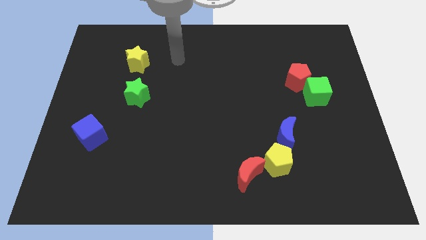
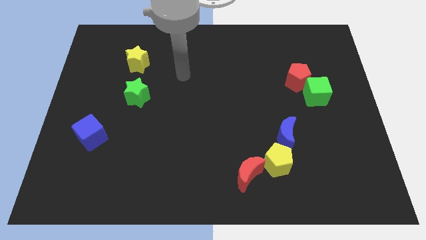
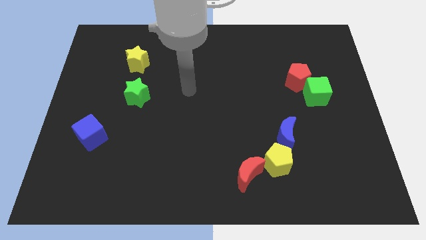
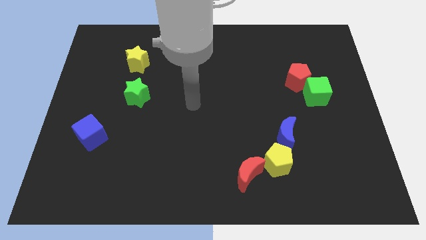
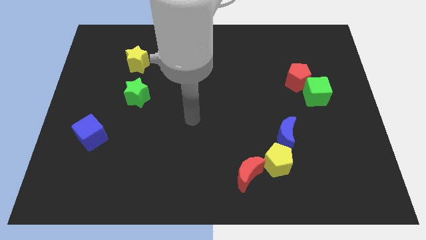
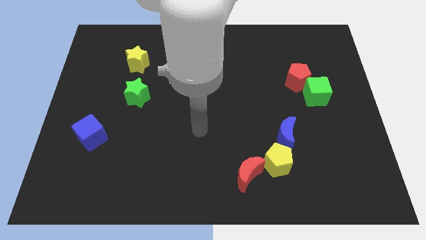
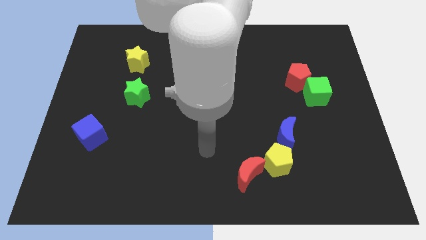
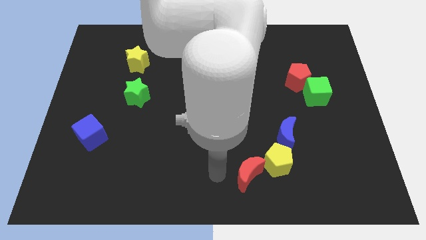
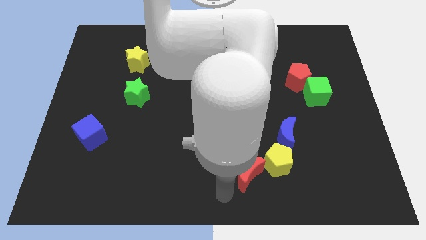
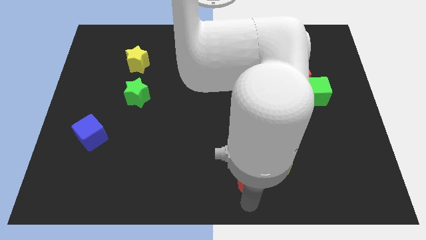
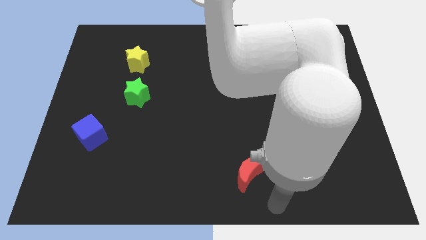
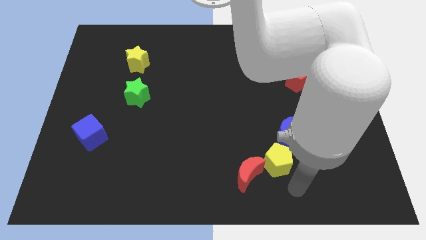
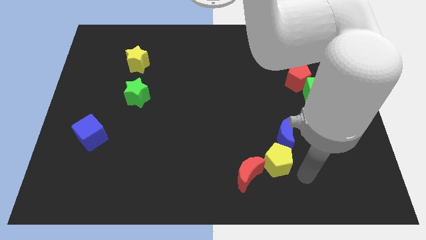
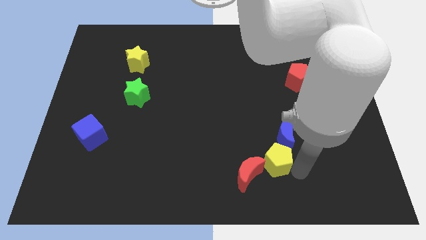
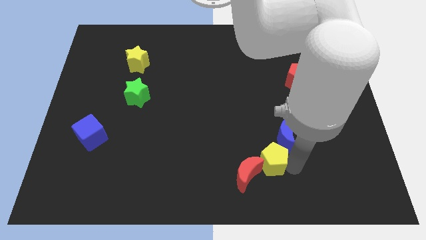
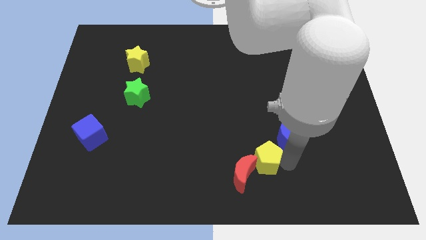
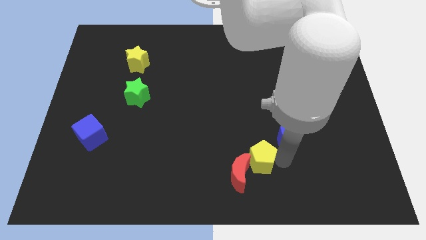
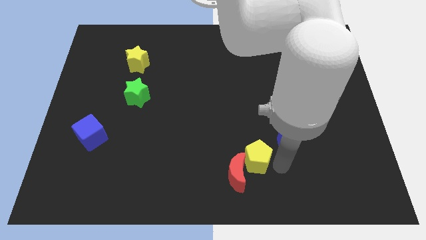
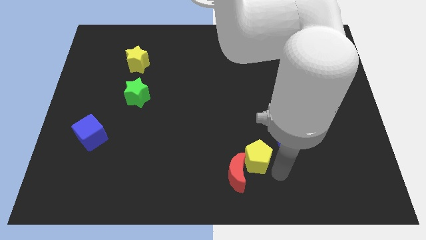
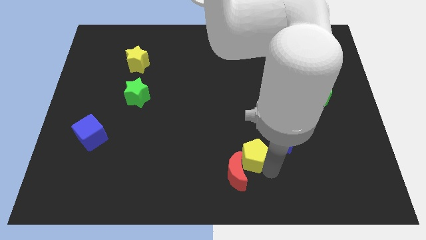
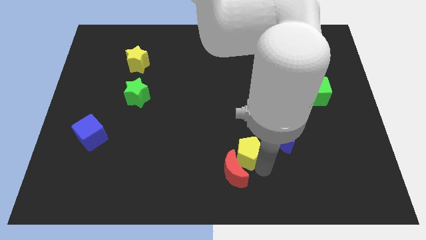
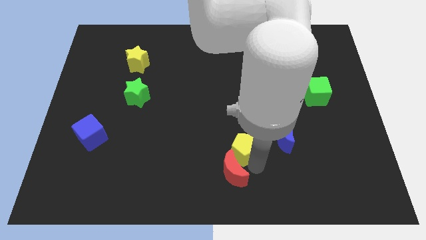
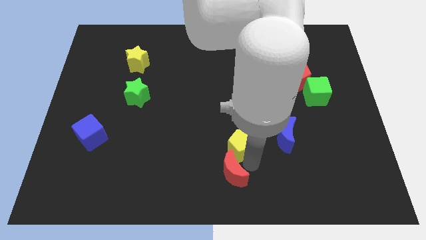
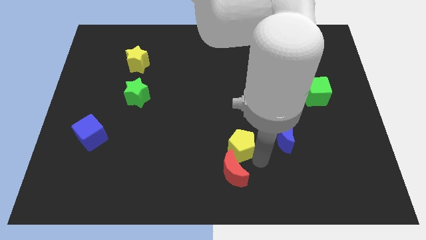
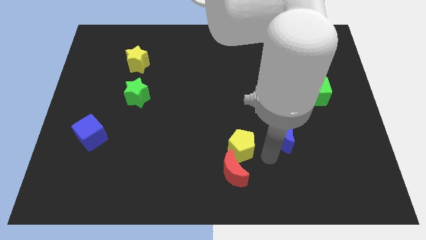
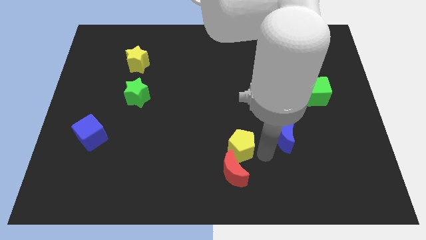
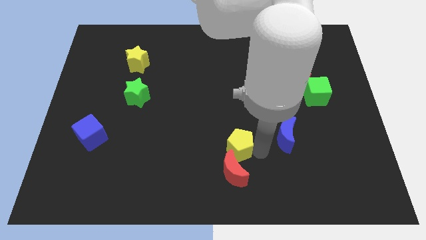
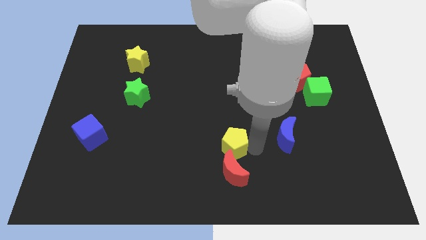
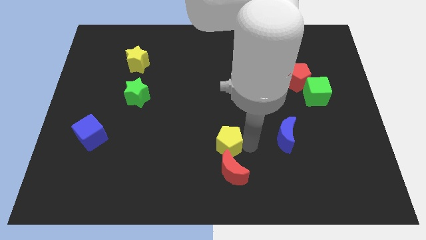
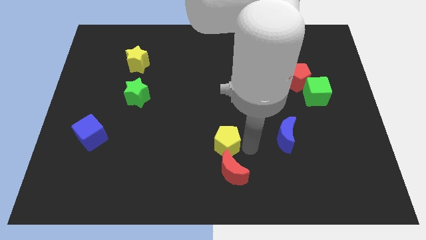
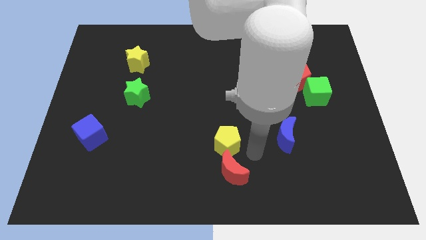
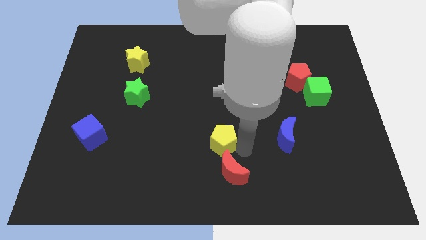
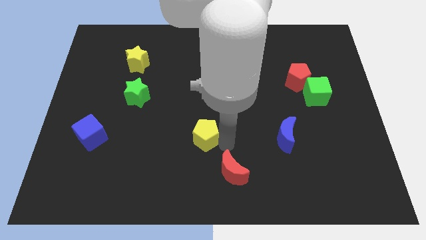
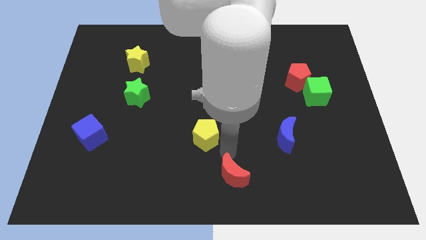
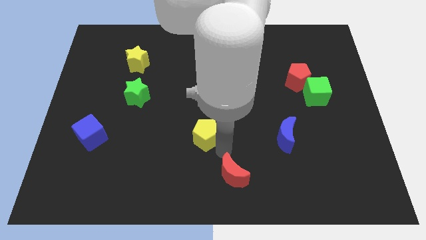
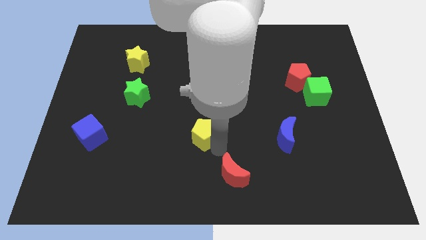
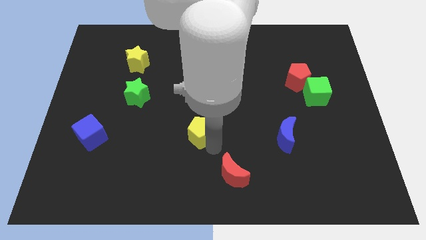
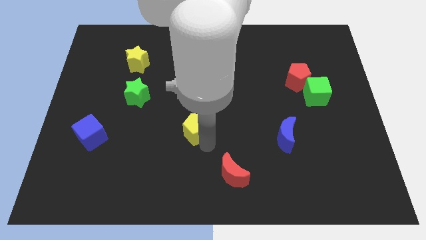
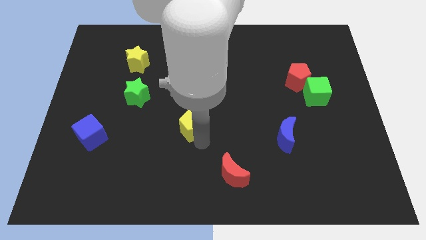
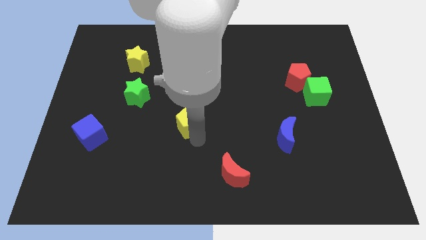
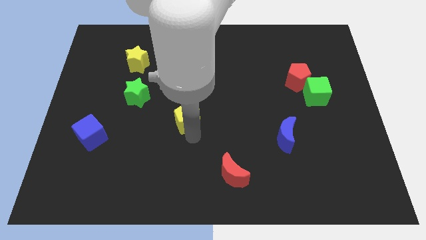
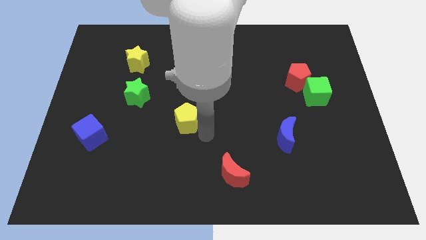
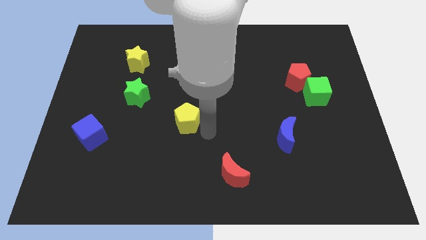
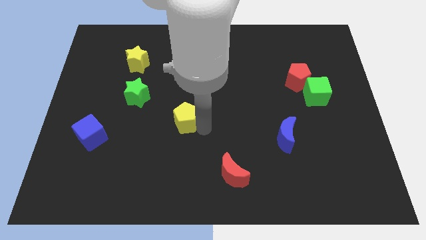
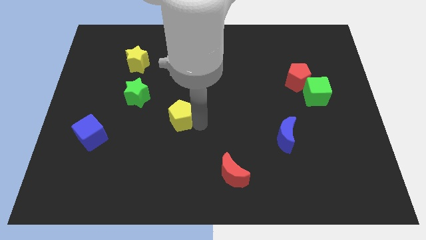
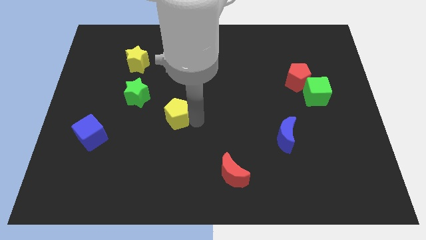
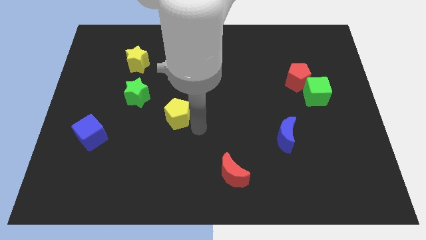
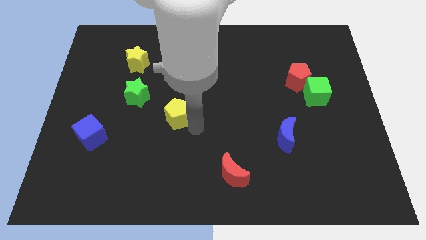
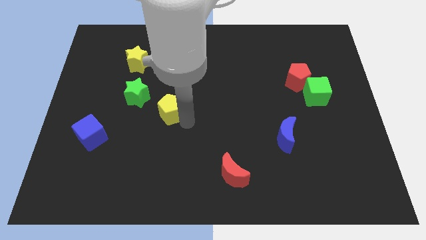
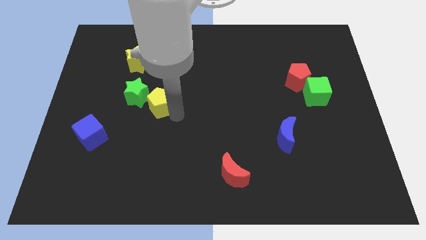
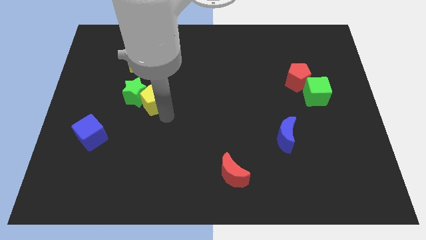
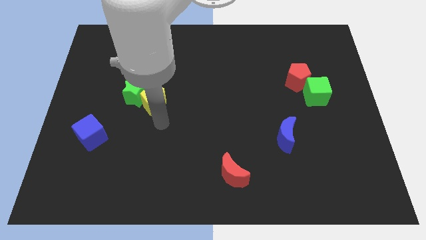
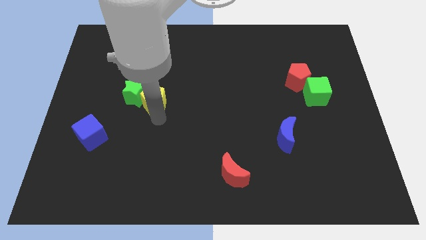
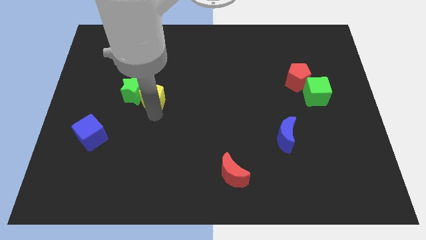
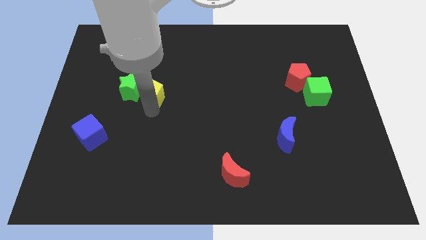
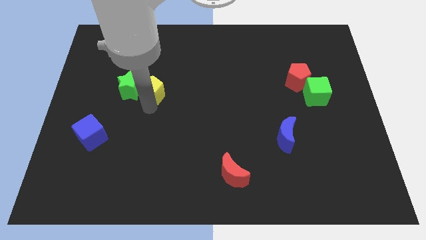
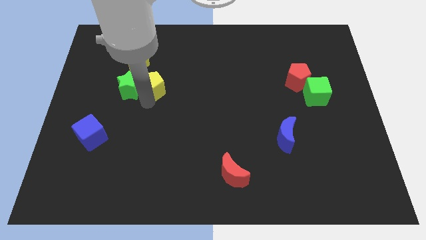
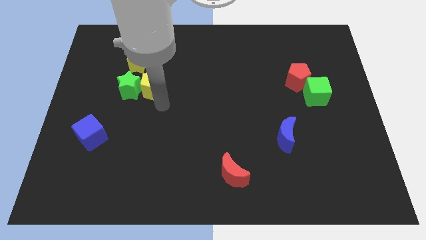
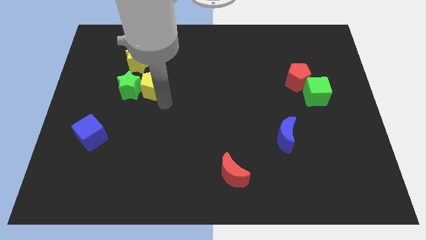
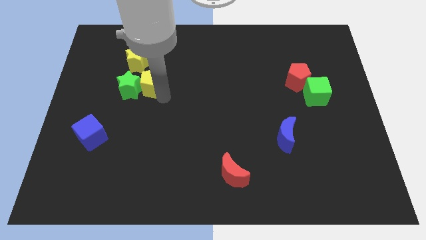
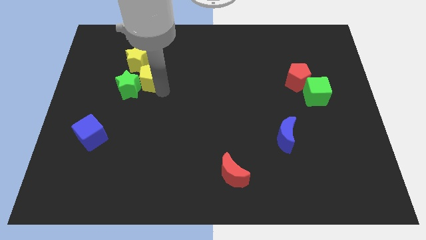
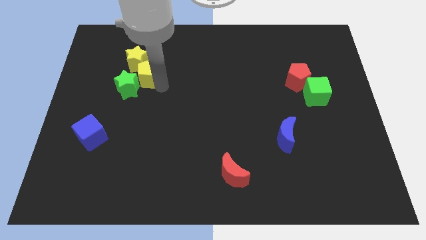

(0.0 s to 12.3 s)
slide the yellow pentagon next to the yellow star

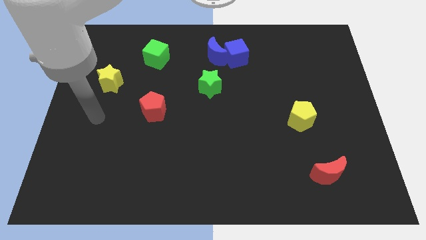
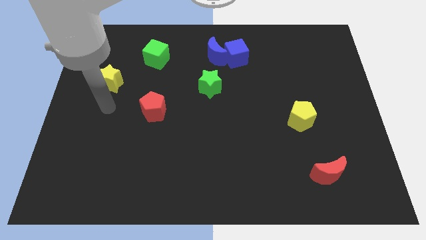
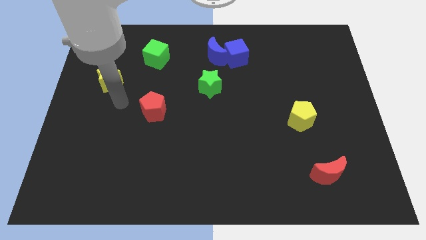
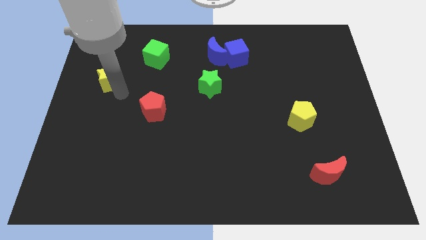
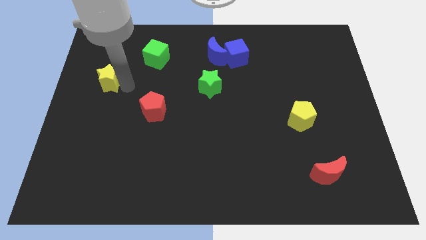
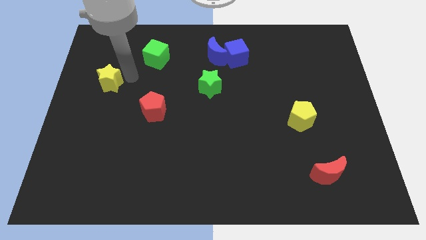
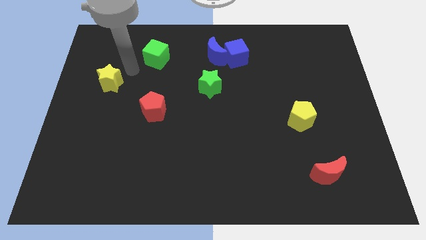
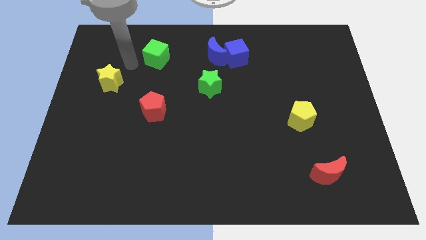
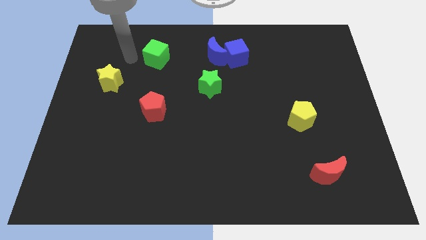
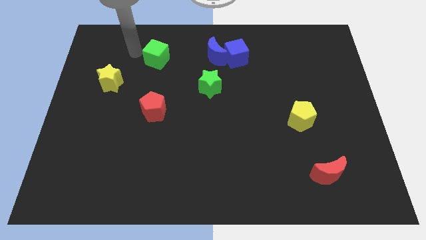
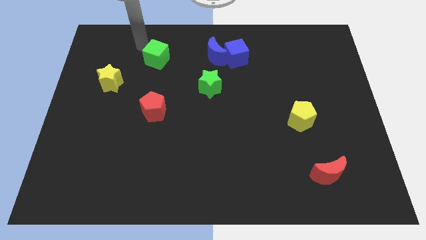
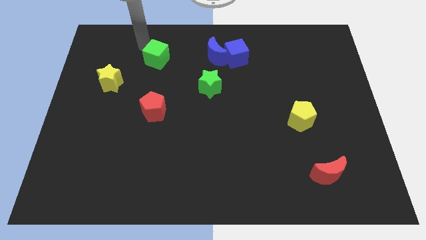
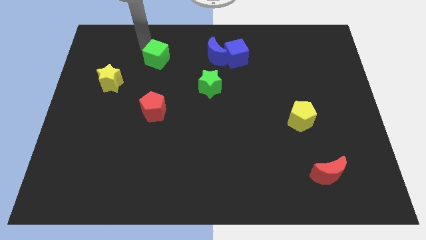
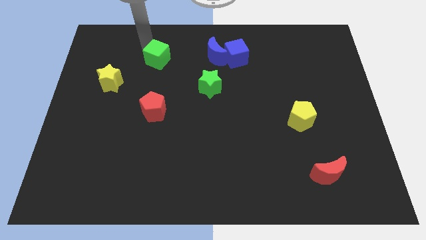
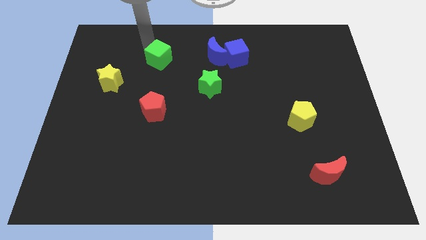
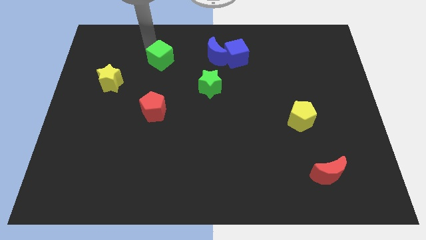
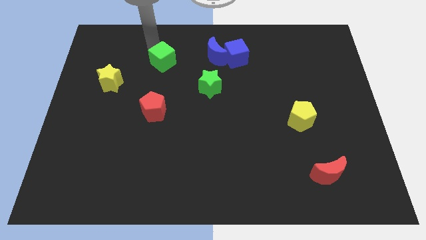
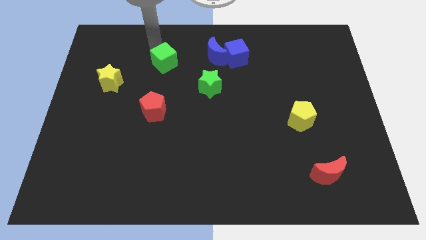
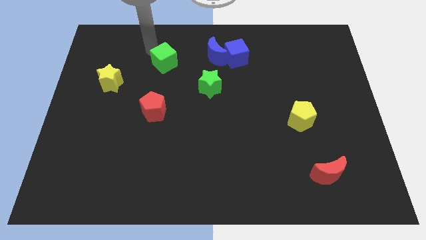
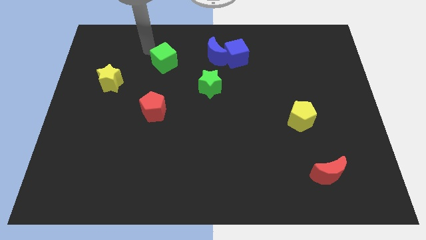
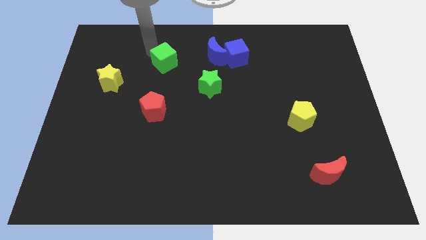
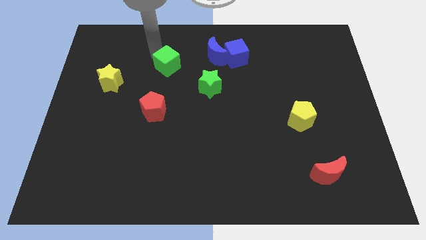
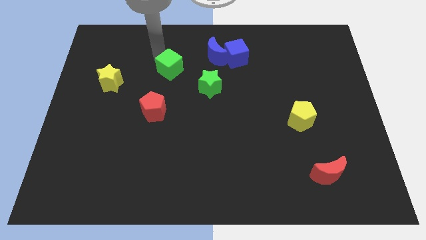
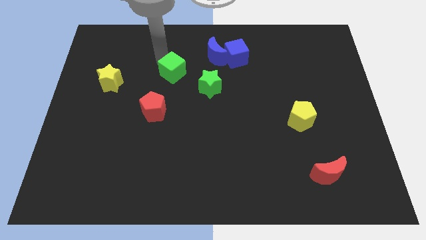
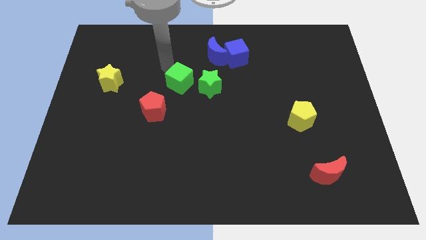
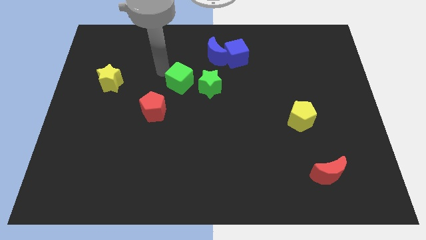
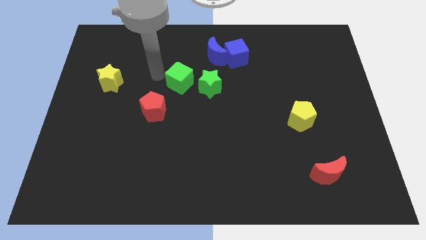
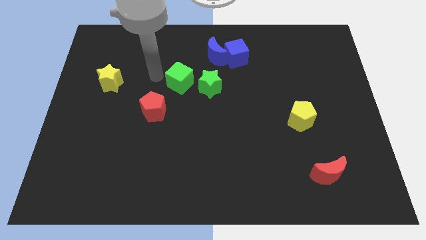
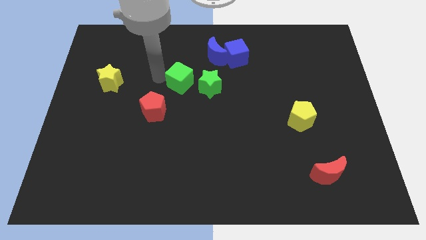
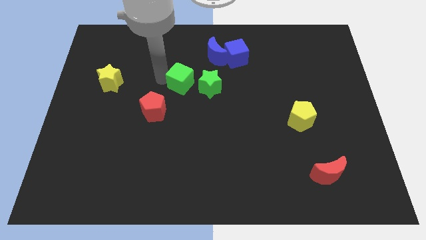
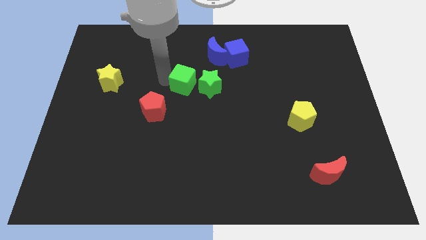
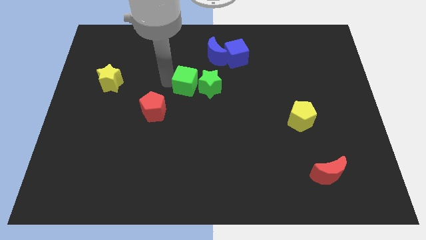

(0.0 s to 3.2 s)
move the green cube to the green star
